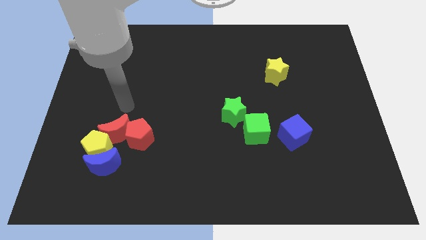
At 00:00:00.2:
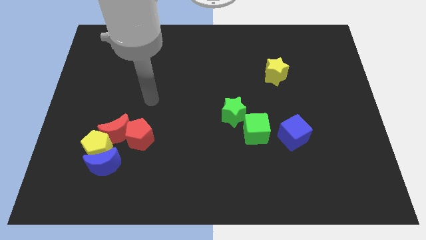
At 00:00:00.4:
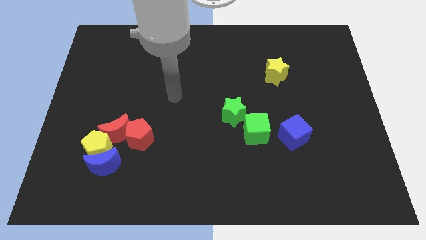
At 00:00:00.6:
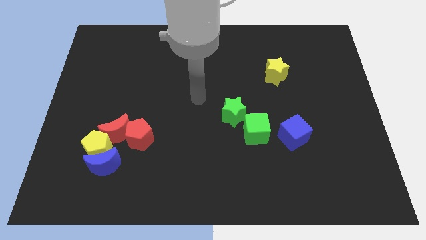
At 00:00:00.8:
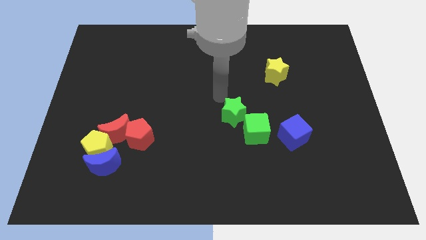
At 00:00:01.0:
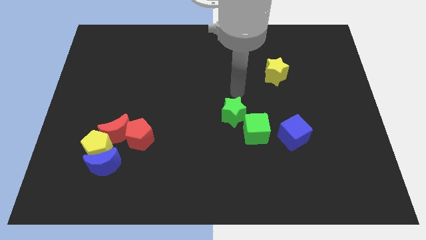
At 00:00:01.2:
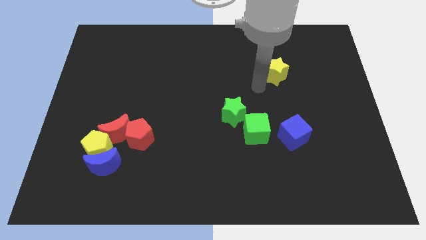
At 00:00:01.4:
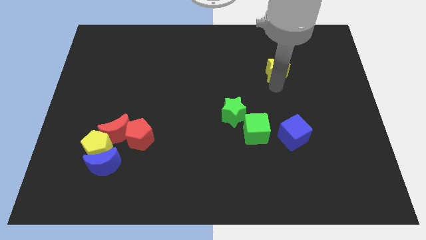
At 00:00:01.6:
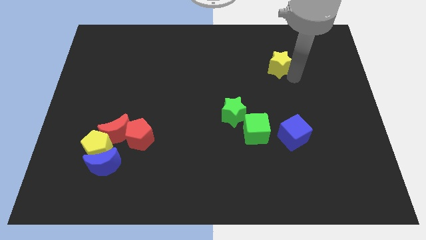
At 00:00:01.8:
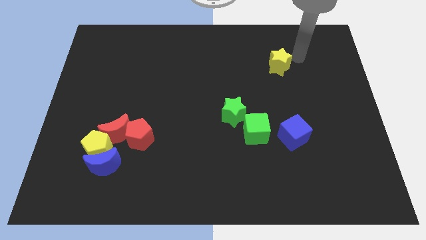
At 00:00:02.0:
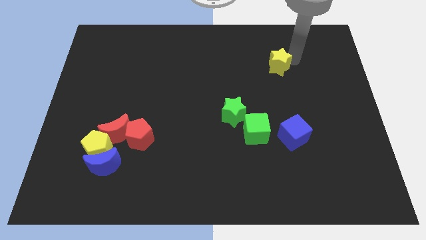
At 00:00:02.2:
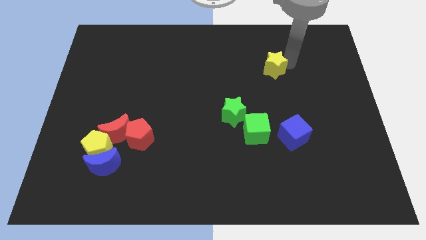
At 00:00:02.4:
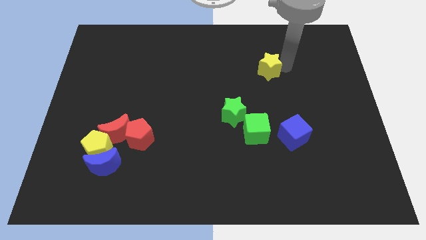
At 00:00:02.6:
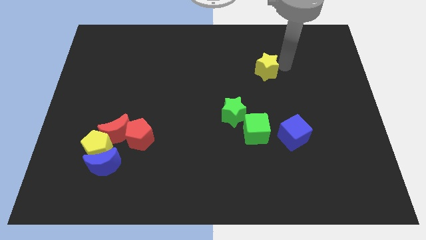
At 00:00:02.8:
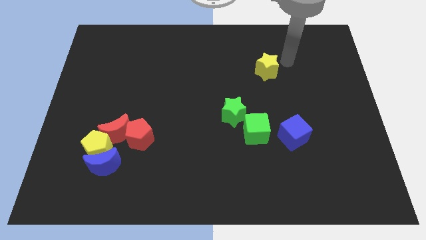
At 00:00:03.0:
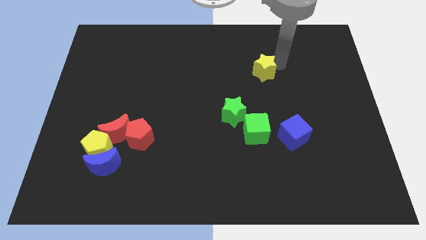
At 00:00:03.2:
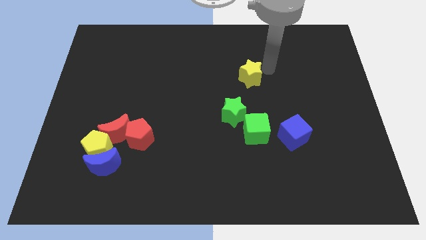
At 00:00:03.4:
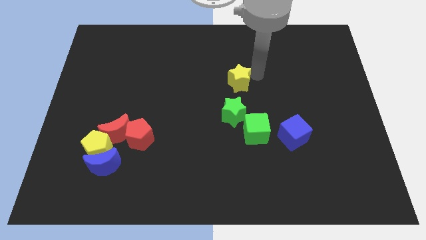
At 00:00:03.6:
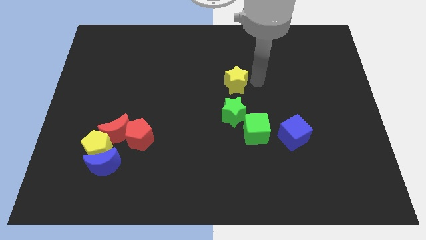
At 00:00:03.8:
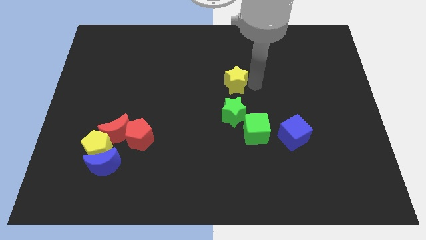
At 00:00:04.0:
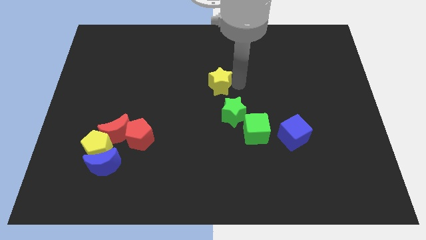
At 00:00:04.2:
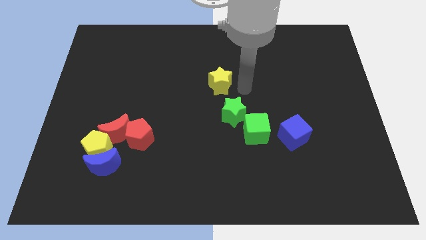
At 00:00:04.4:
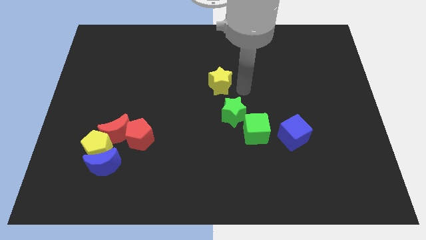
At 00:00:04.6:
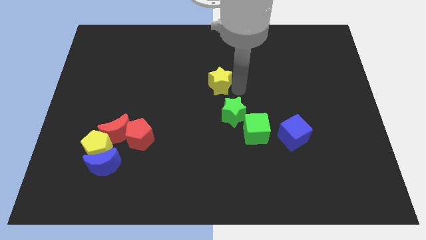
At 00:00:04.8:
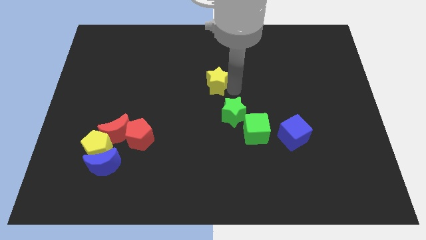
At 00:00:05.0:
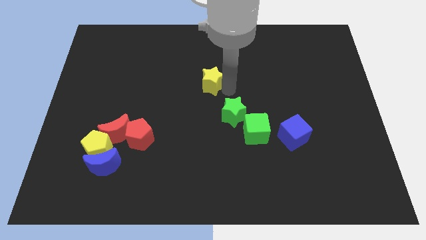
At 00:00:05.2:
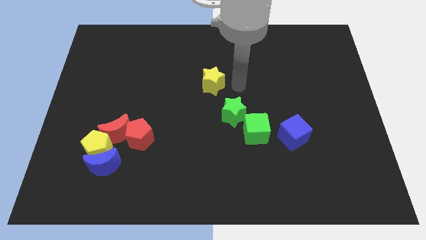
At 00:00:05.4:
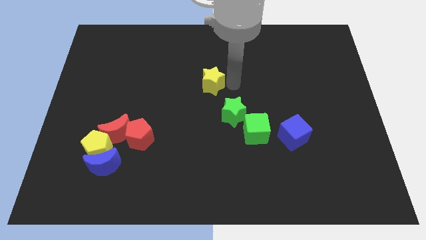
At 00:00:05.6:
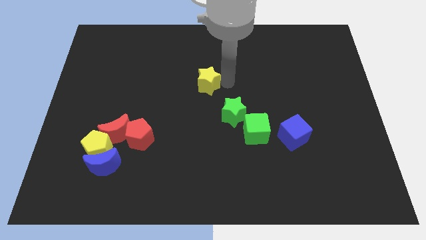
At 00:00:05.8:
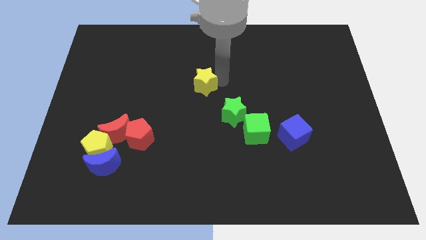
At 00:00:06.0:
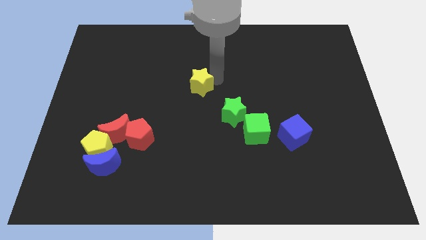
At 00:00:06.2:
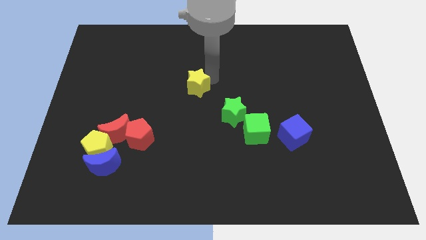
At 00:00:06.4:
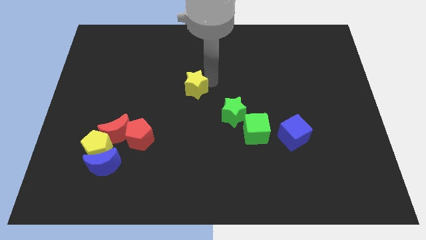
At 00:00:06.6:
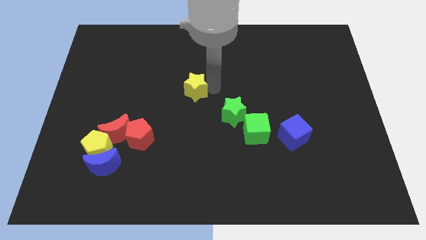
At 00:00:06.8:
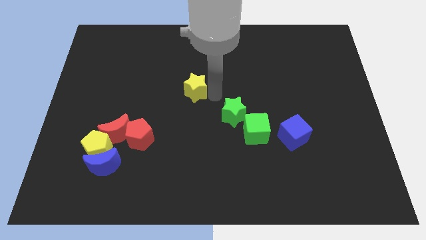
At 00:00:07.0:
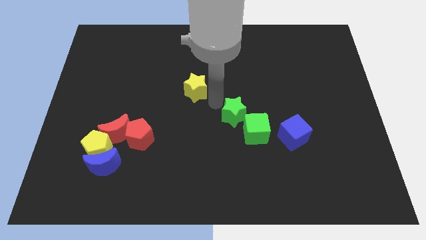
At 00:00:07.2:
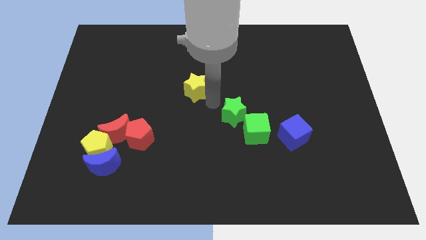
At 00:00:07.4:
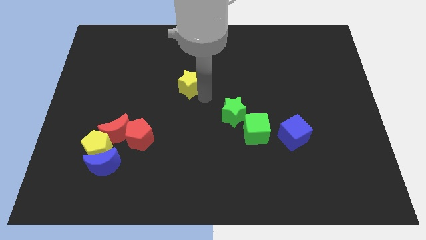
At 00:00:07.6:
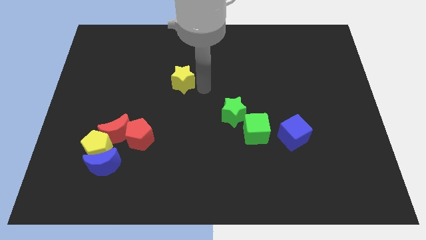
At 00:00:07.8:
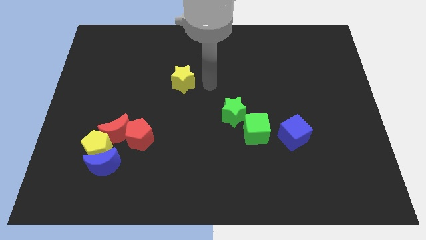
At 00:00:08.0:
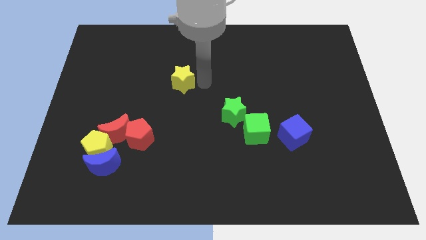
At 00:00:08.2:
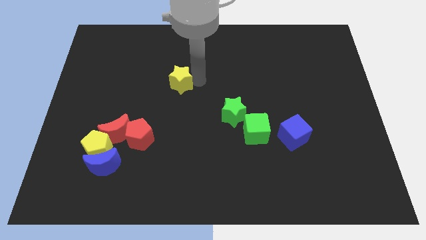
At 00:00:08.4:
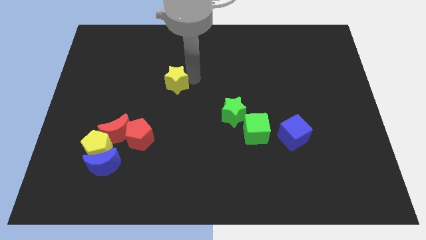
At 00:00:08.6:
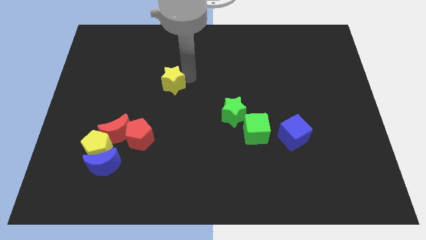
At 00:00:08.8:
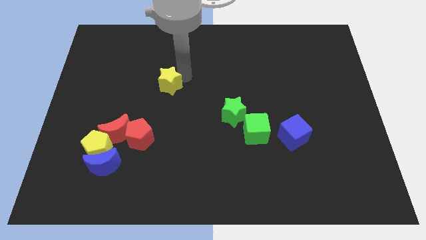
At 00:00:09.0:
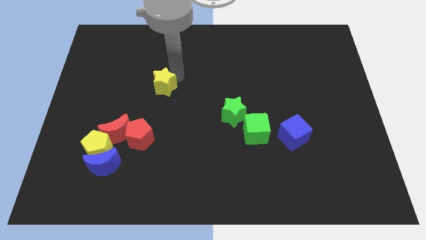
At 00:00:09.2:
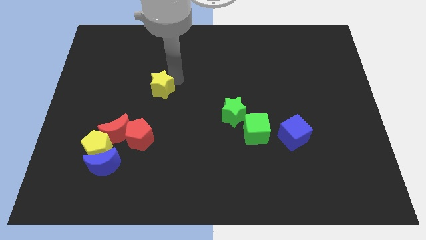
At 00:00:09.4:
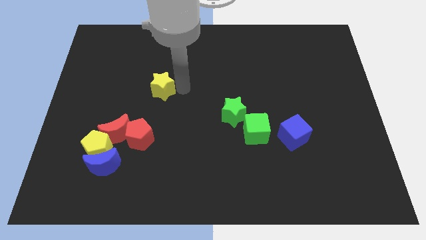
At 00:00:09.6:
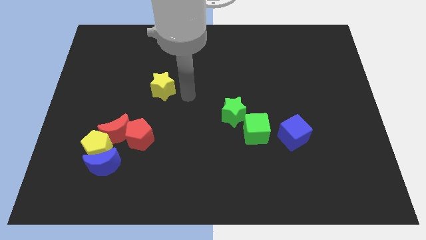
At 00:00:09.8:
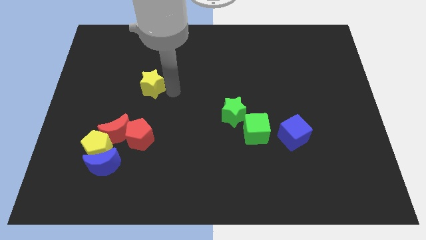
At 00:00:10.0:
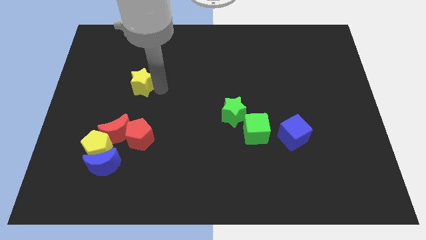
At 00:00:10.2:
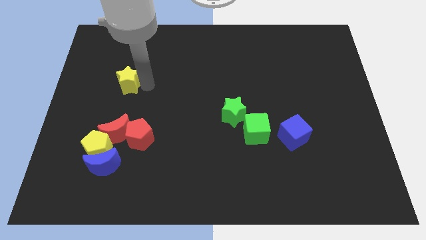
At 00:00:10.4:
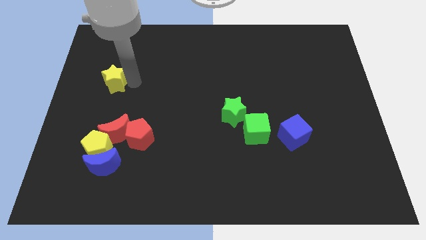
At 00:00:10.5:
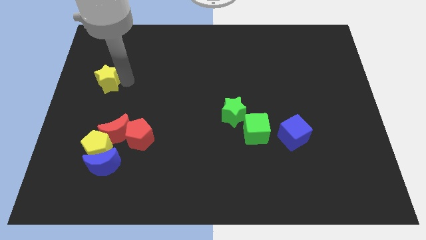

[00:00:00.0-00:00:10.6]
slide the yellow star to the center left

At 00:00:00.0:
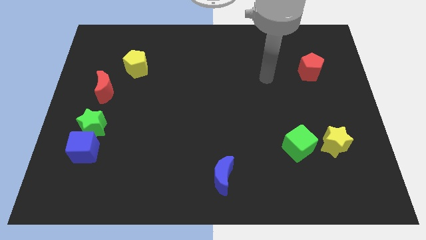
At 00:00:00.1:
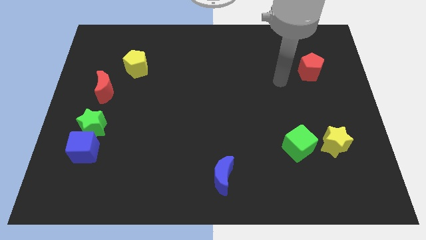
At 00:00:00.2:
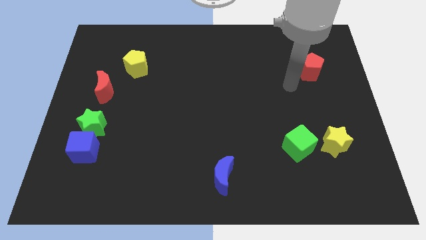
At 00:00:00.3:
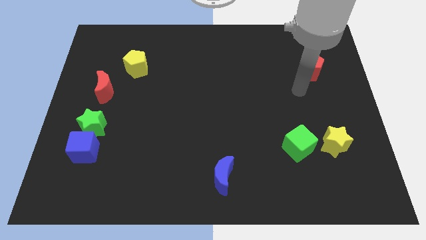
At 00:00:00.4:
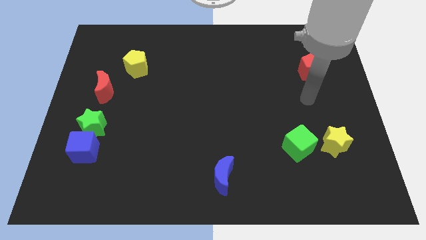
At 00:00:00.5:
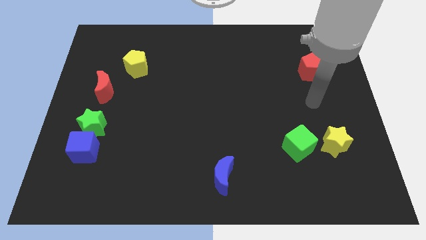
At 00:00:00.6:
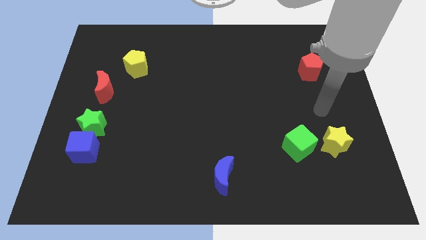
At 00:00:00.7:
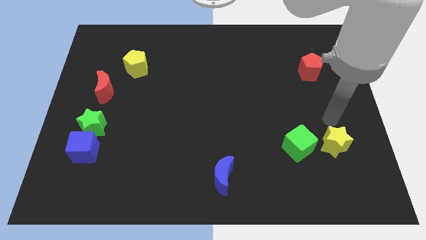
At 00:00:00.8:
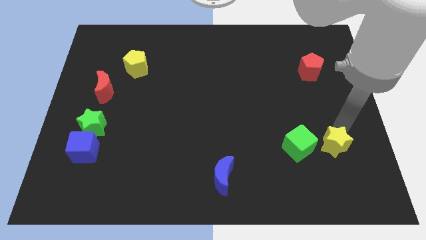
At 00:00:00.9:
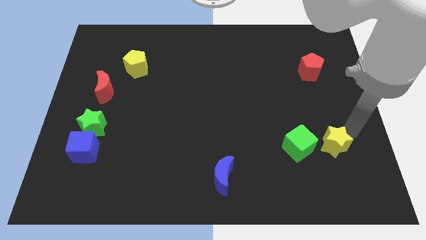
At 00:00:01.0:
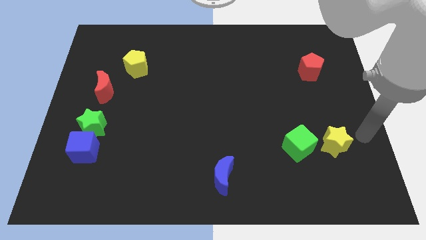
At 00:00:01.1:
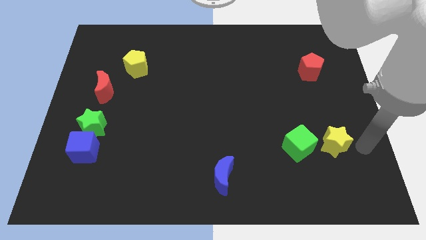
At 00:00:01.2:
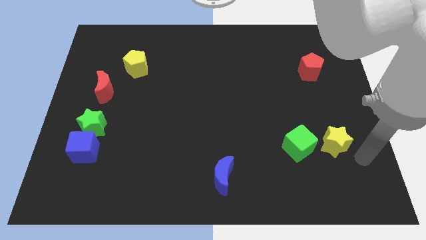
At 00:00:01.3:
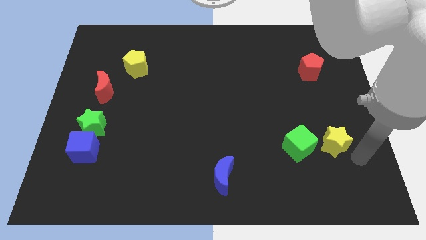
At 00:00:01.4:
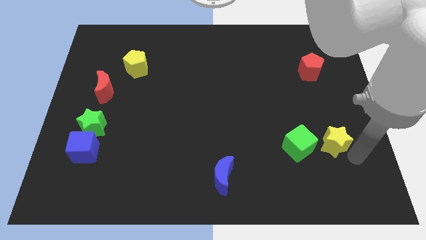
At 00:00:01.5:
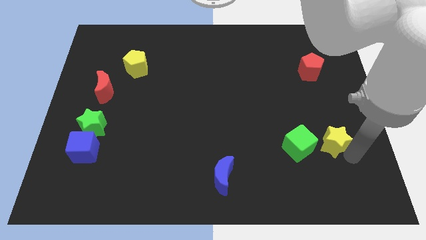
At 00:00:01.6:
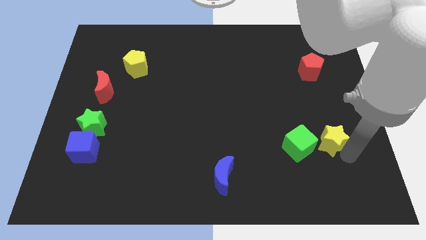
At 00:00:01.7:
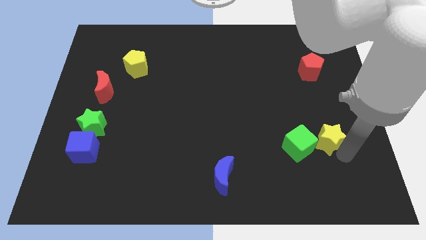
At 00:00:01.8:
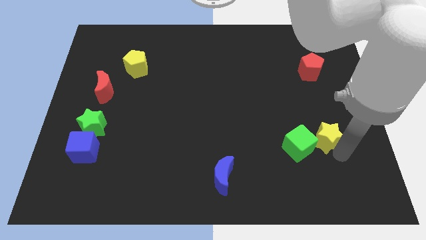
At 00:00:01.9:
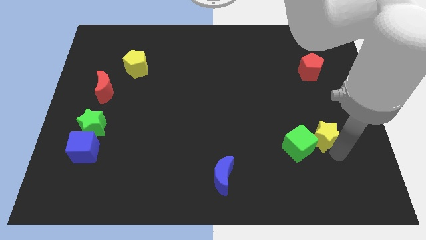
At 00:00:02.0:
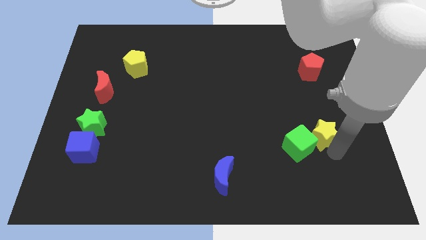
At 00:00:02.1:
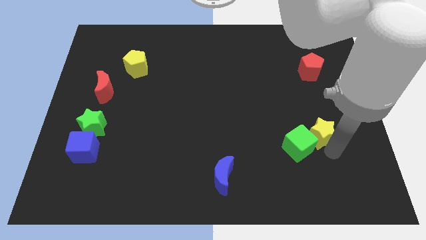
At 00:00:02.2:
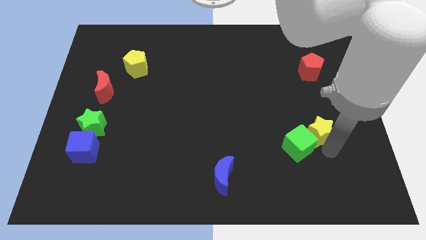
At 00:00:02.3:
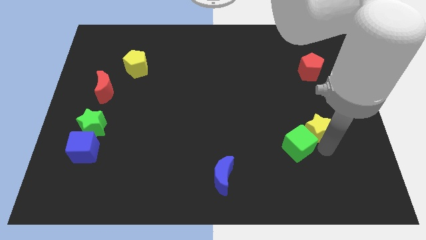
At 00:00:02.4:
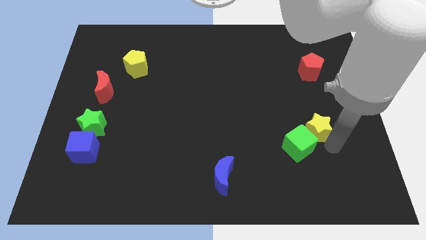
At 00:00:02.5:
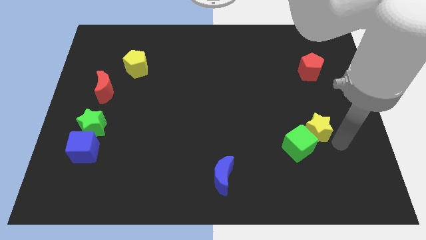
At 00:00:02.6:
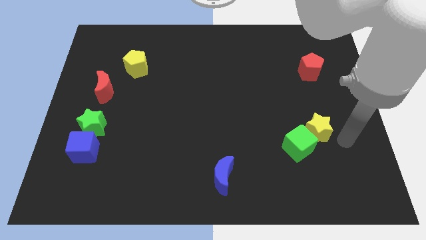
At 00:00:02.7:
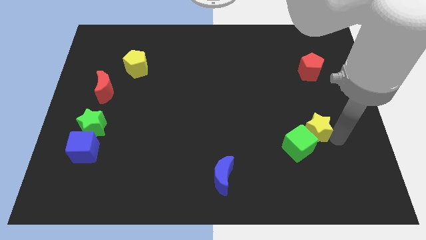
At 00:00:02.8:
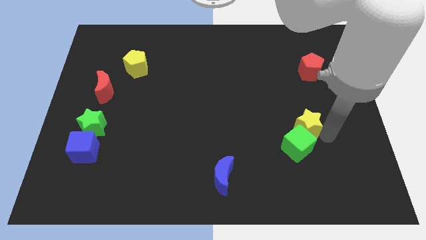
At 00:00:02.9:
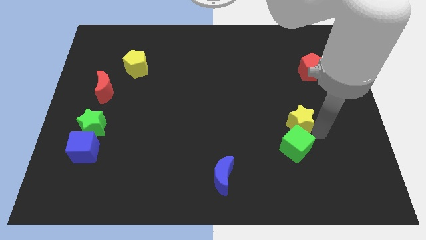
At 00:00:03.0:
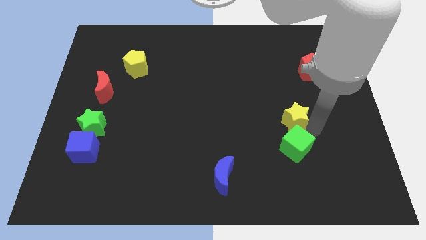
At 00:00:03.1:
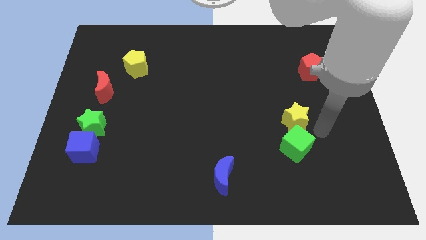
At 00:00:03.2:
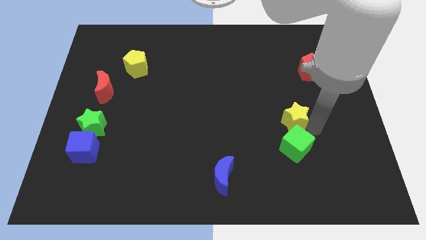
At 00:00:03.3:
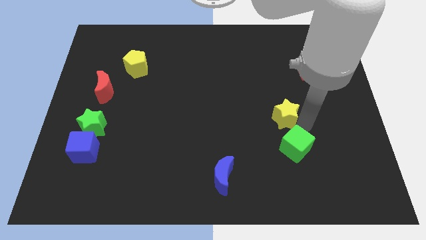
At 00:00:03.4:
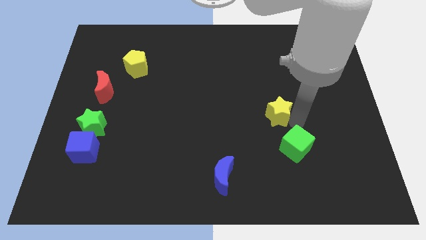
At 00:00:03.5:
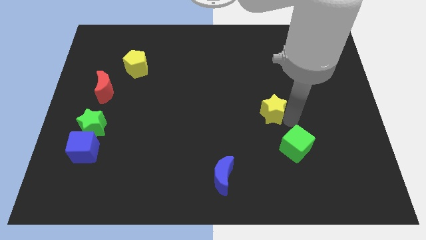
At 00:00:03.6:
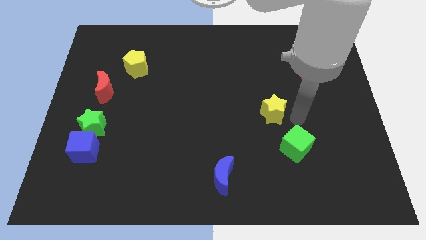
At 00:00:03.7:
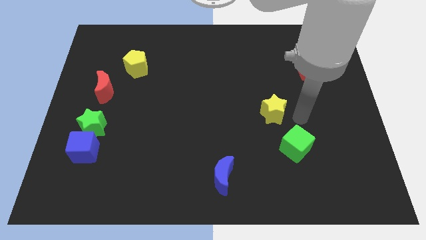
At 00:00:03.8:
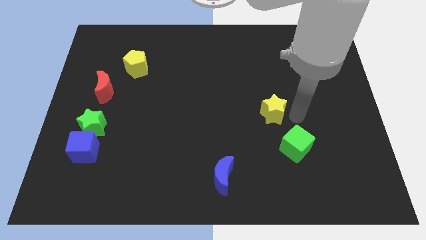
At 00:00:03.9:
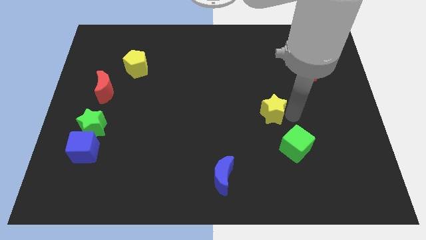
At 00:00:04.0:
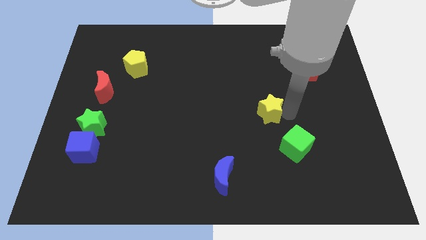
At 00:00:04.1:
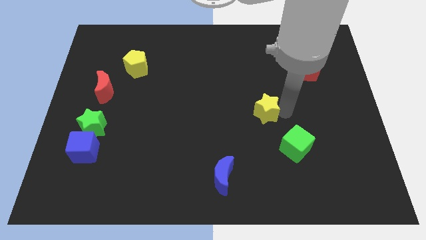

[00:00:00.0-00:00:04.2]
push the yellow star to the middle
